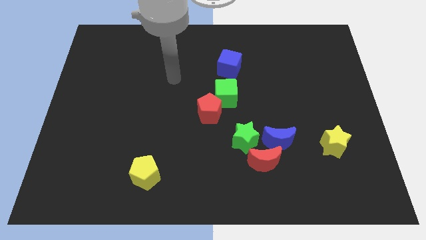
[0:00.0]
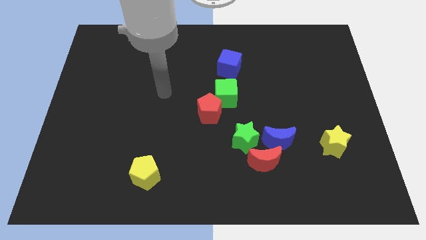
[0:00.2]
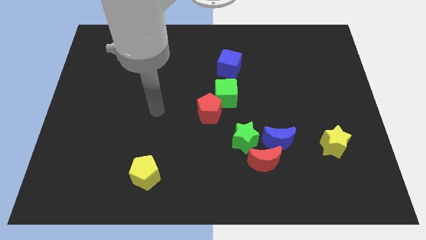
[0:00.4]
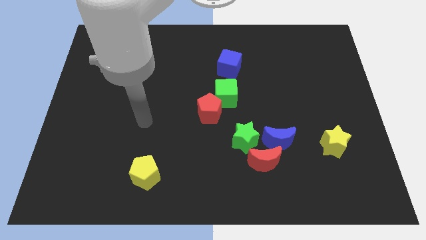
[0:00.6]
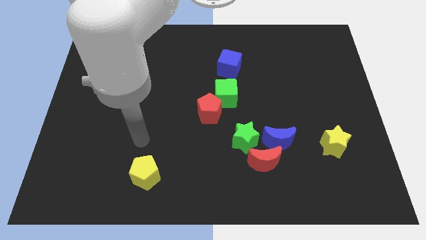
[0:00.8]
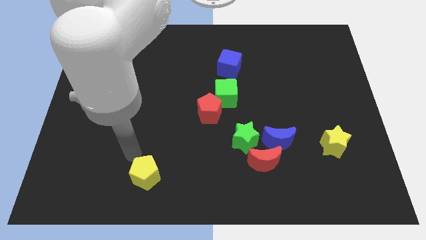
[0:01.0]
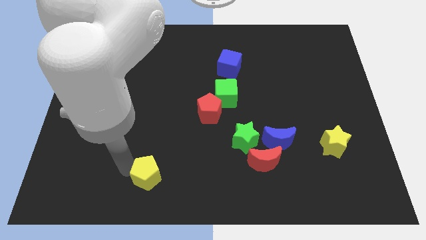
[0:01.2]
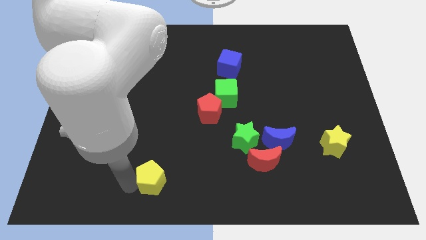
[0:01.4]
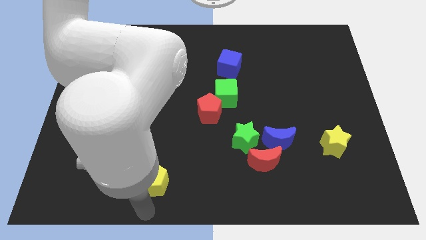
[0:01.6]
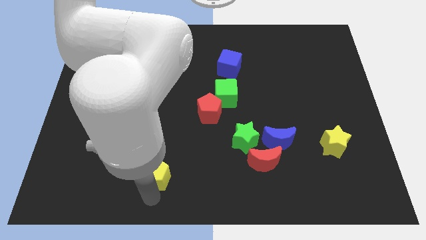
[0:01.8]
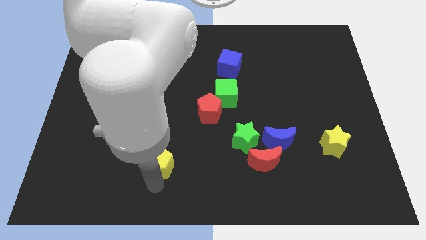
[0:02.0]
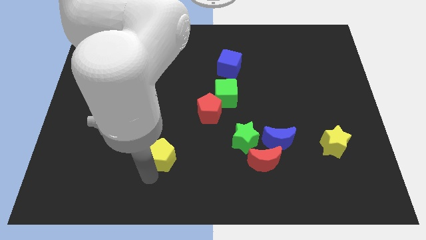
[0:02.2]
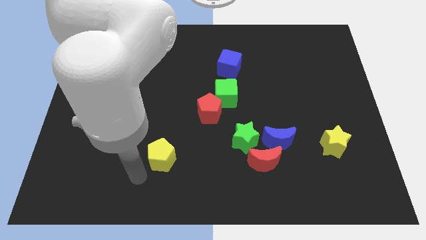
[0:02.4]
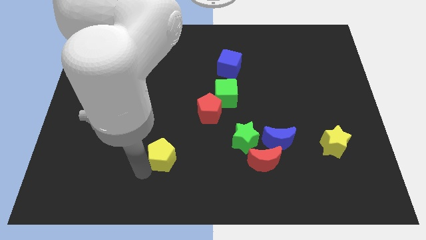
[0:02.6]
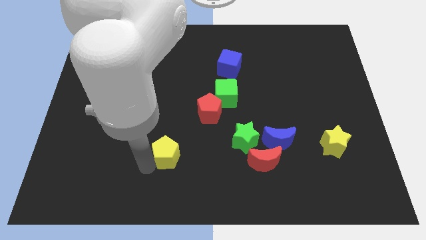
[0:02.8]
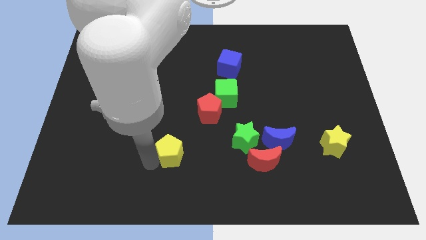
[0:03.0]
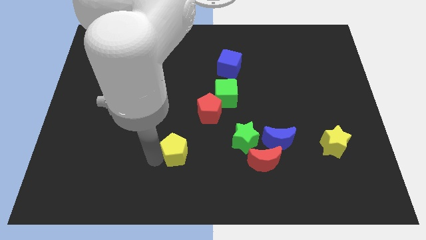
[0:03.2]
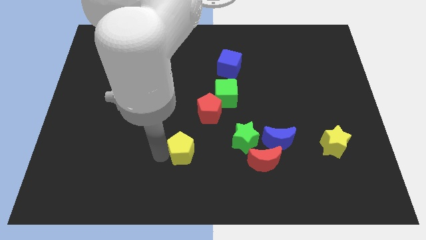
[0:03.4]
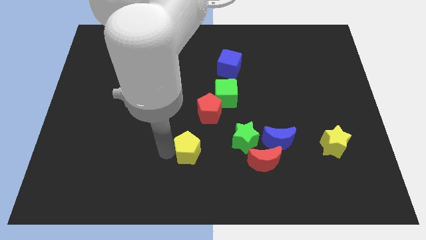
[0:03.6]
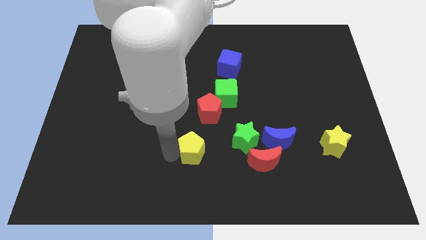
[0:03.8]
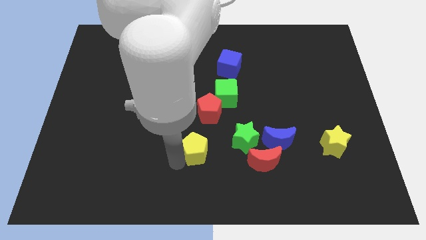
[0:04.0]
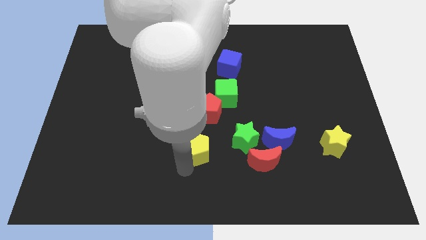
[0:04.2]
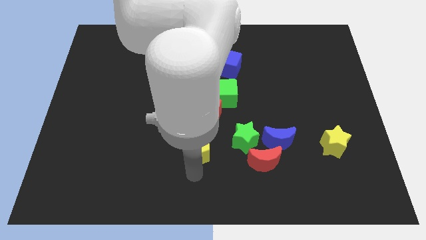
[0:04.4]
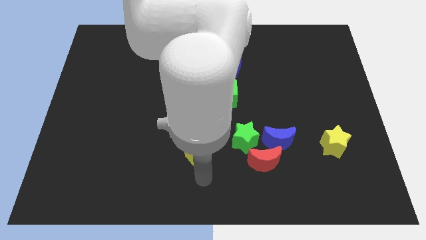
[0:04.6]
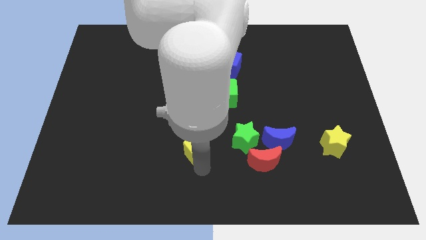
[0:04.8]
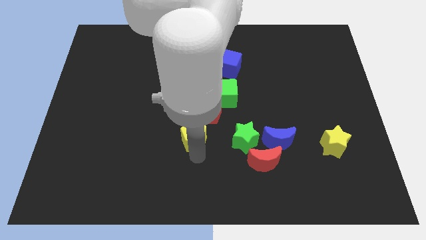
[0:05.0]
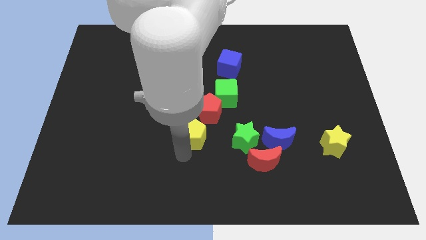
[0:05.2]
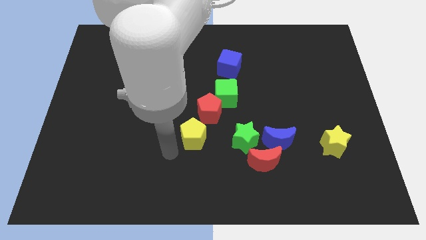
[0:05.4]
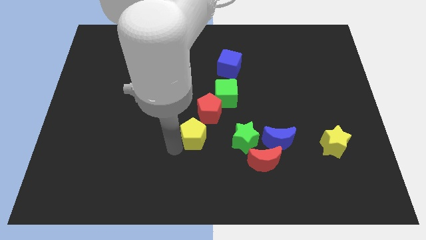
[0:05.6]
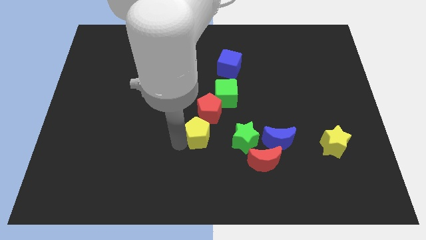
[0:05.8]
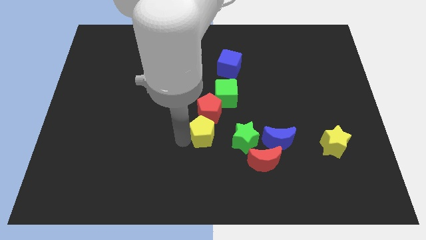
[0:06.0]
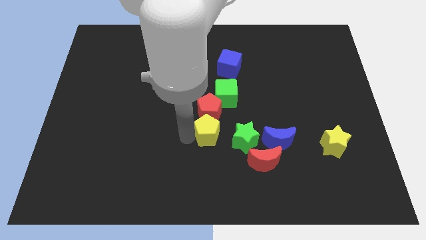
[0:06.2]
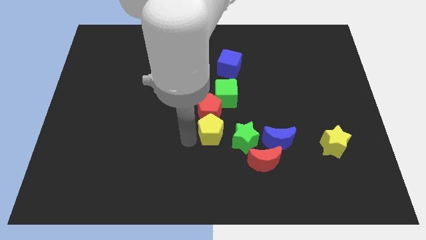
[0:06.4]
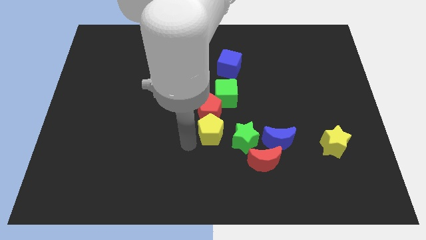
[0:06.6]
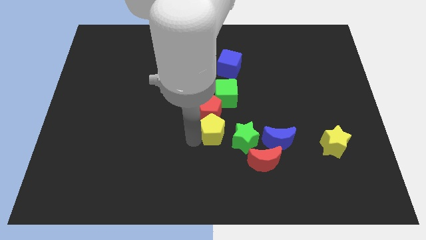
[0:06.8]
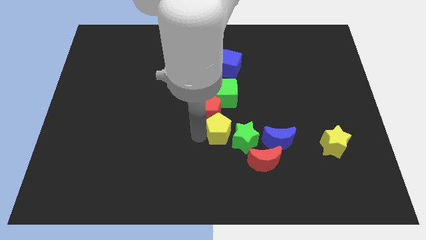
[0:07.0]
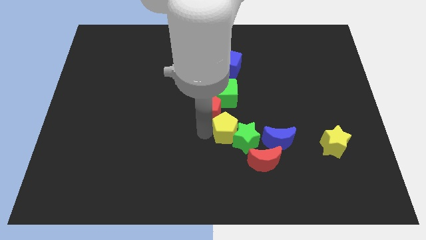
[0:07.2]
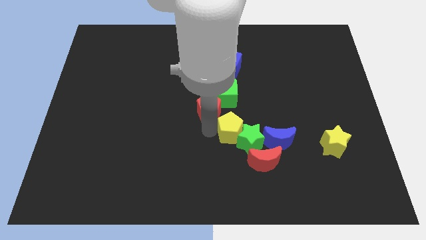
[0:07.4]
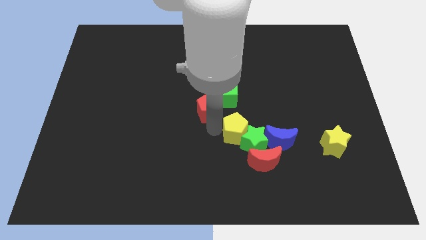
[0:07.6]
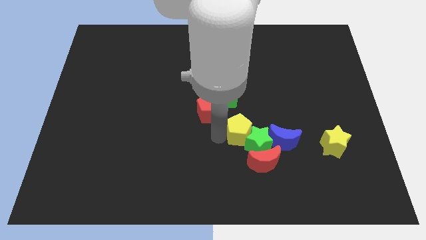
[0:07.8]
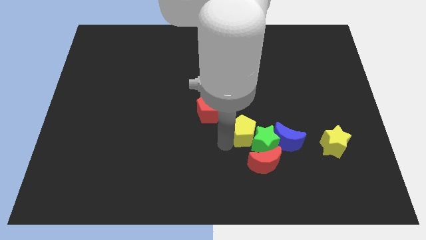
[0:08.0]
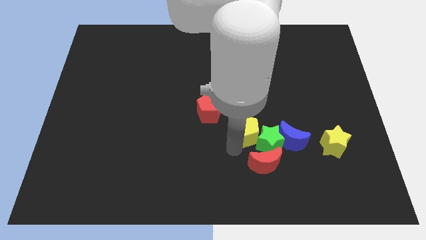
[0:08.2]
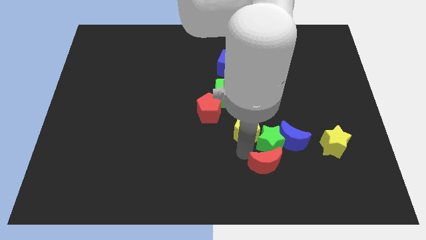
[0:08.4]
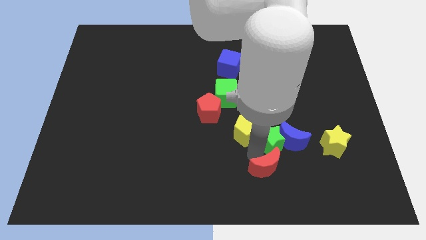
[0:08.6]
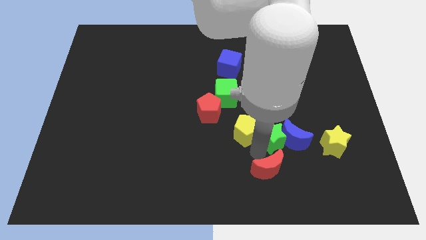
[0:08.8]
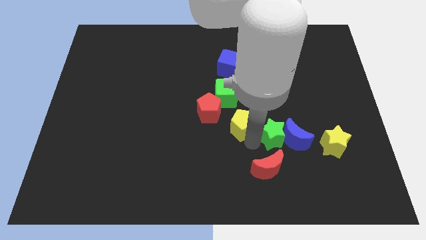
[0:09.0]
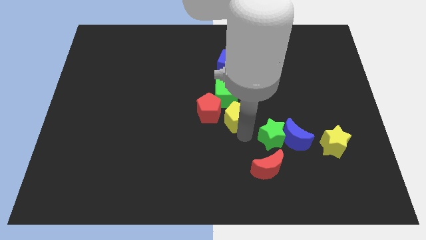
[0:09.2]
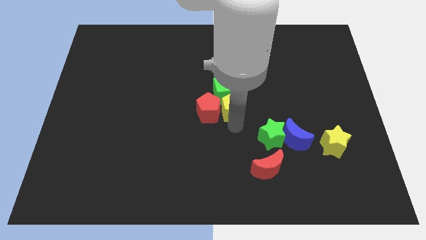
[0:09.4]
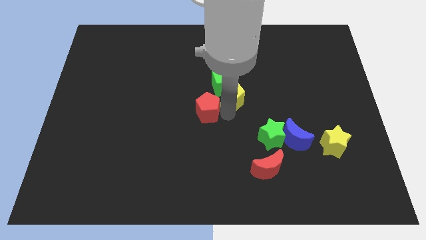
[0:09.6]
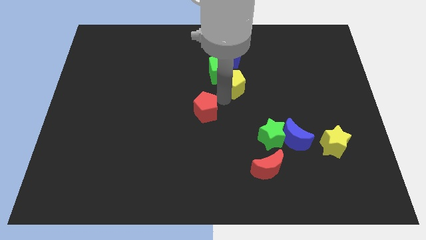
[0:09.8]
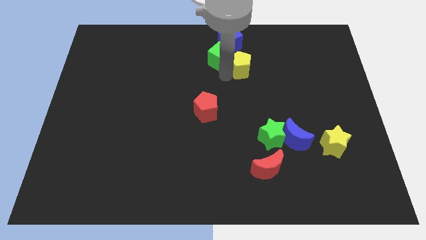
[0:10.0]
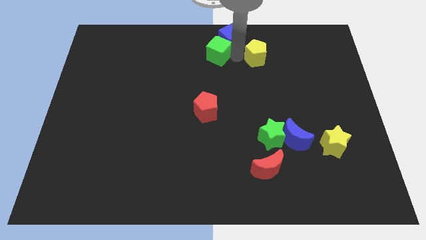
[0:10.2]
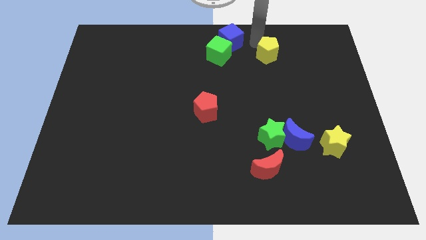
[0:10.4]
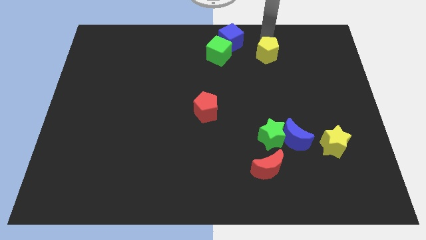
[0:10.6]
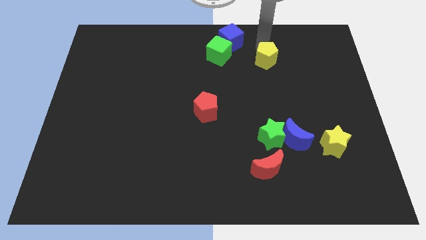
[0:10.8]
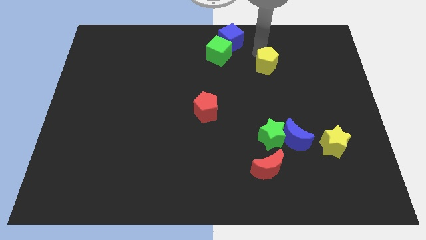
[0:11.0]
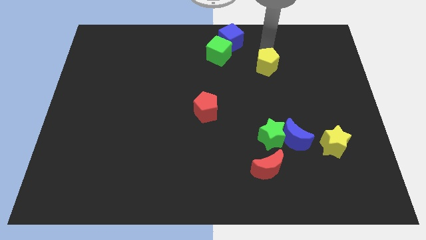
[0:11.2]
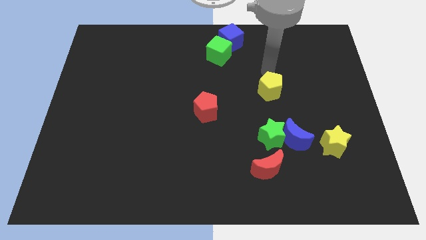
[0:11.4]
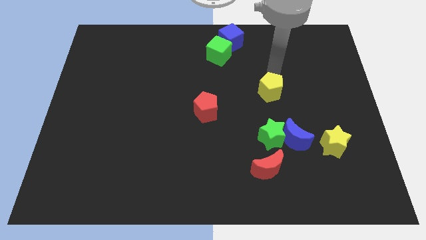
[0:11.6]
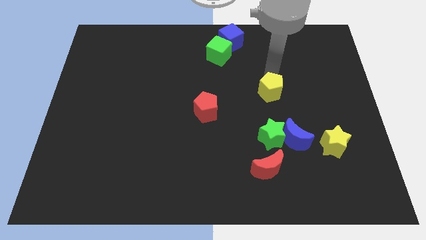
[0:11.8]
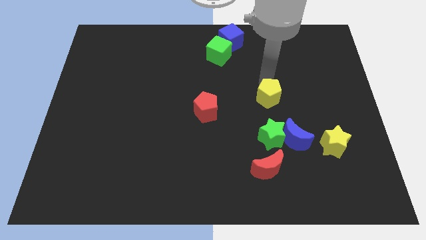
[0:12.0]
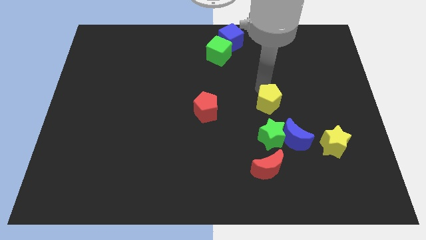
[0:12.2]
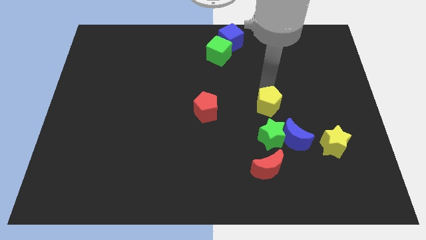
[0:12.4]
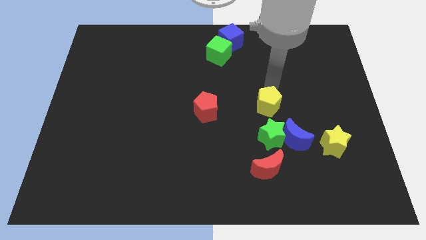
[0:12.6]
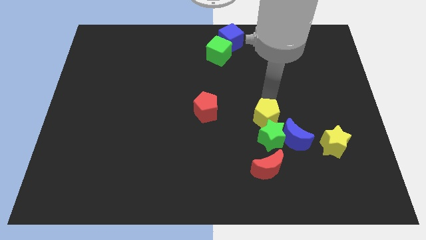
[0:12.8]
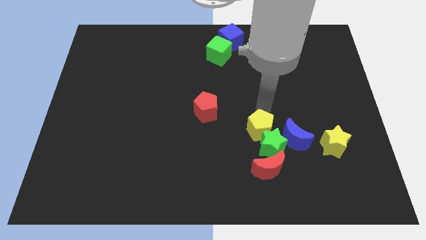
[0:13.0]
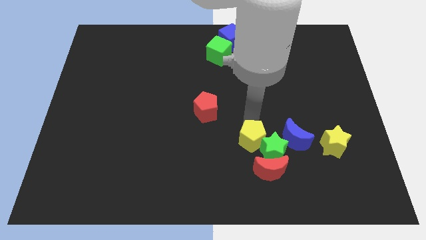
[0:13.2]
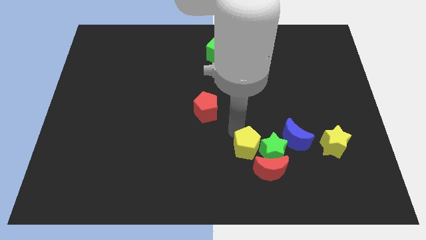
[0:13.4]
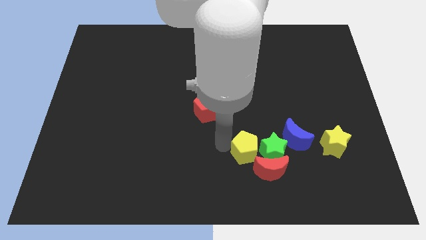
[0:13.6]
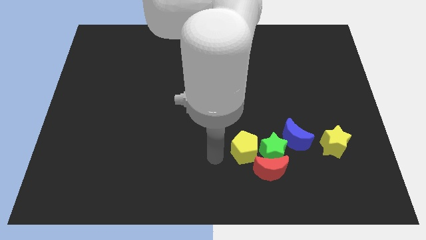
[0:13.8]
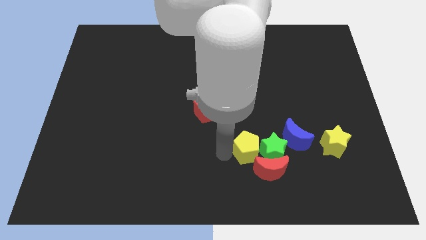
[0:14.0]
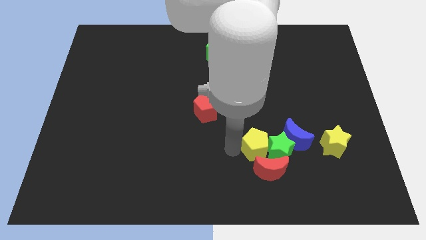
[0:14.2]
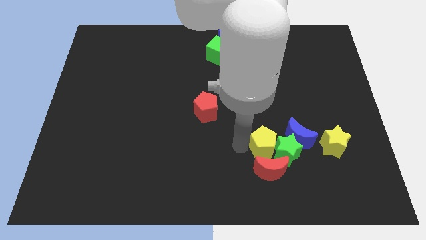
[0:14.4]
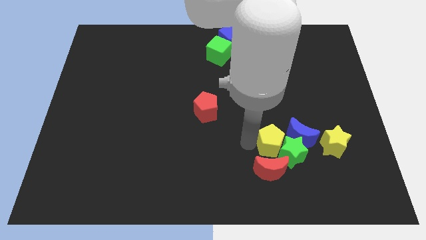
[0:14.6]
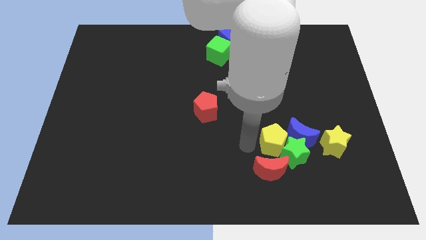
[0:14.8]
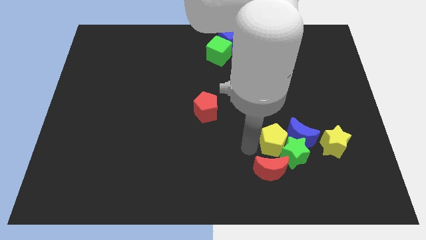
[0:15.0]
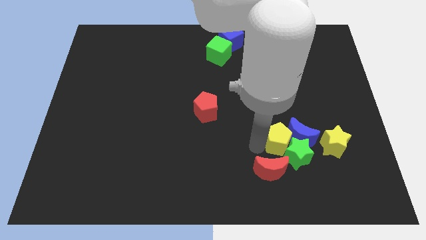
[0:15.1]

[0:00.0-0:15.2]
slide the yellow pentagon to the blue moon

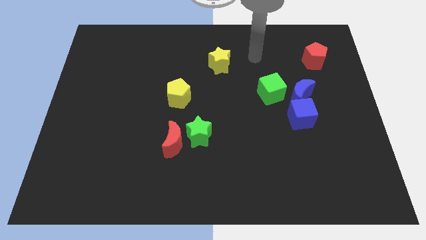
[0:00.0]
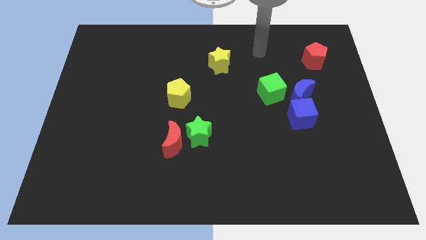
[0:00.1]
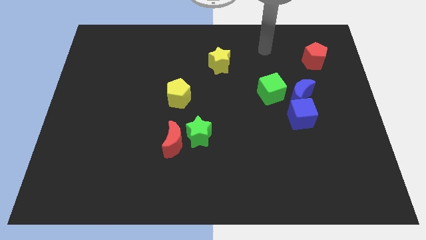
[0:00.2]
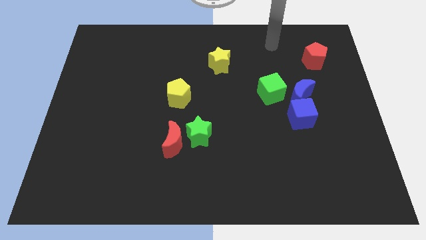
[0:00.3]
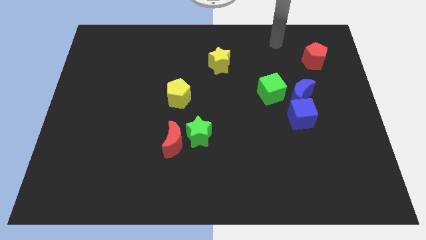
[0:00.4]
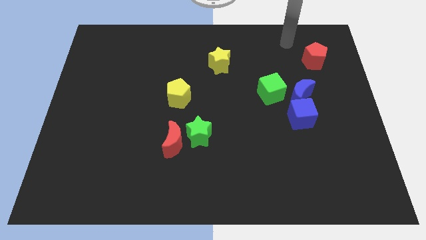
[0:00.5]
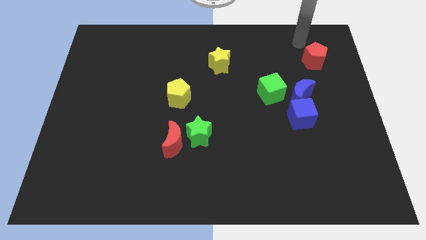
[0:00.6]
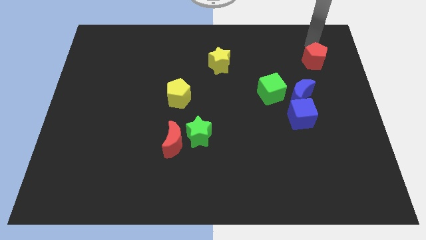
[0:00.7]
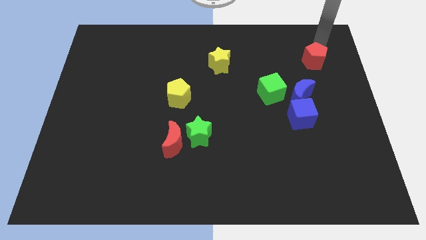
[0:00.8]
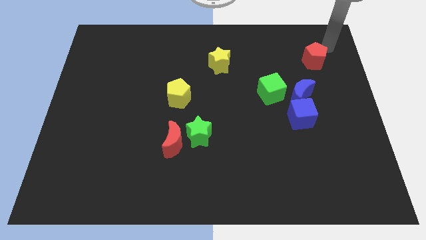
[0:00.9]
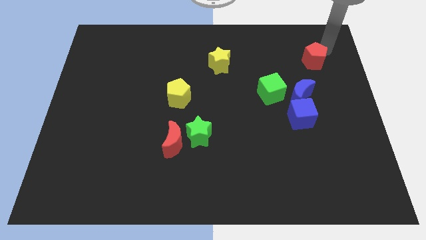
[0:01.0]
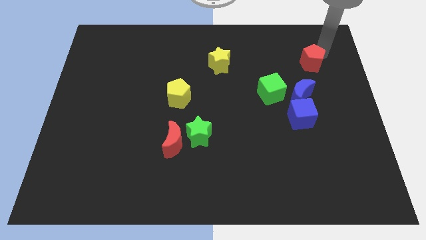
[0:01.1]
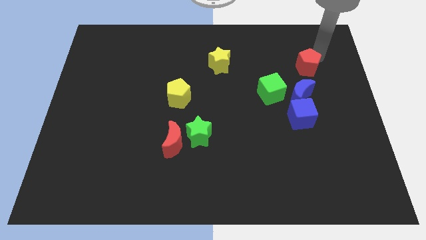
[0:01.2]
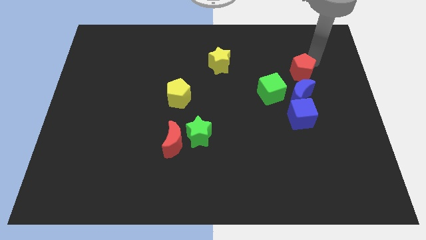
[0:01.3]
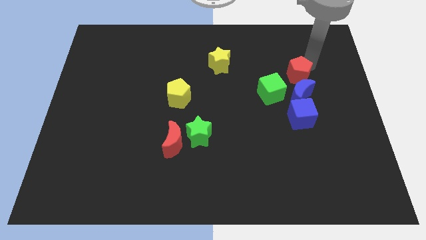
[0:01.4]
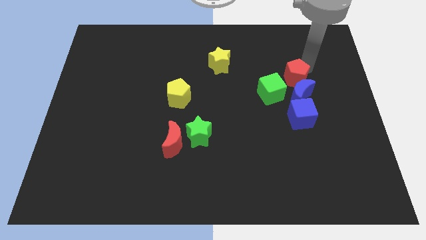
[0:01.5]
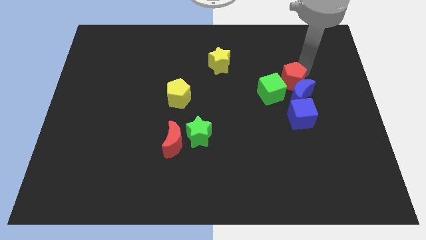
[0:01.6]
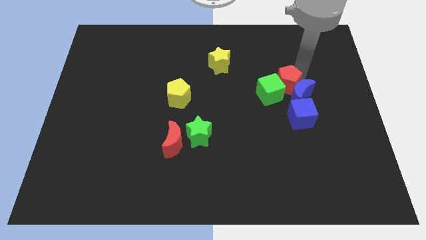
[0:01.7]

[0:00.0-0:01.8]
push the red pentagon close to the green cube
